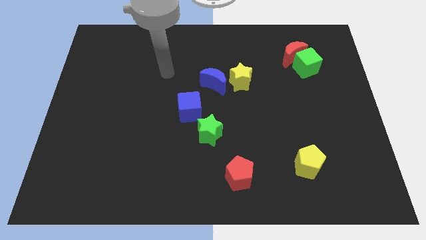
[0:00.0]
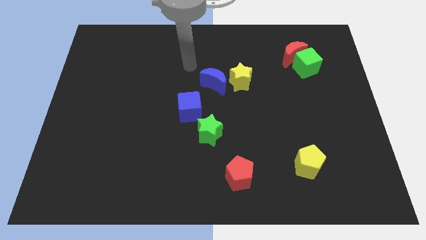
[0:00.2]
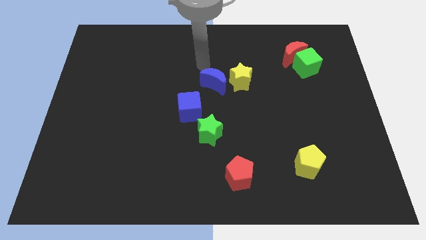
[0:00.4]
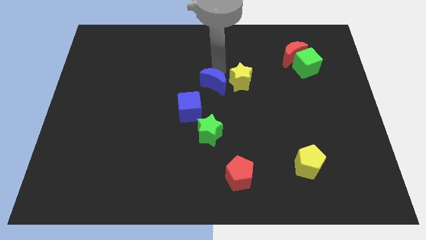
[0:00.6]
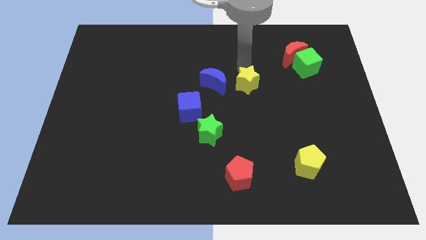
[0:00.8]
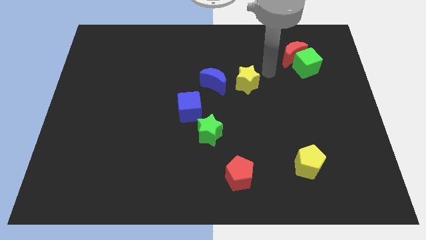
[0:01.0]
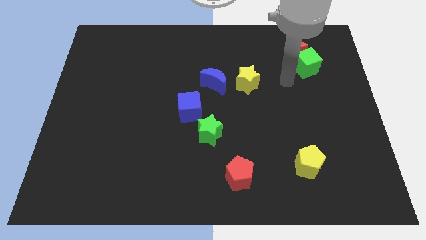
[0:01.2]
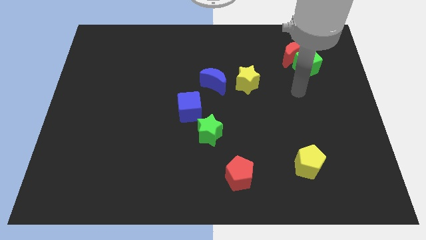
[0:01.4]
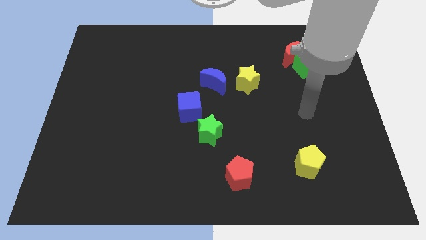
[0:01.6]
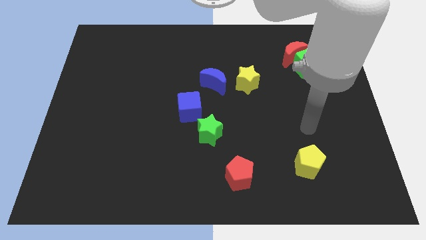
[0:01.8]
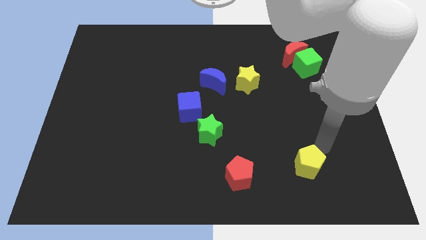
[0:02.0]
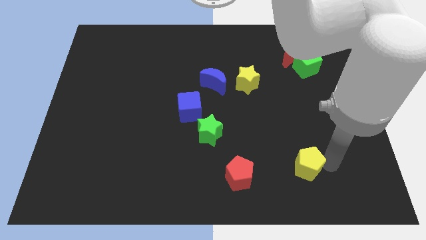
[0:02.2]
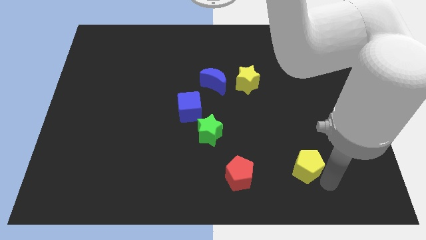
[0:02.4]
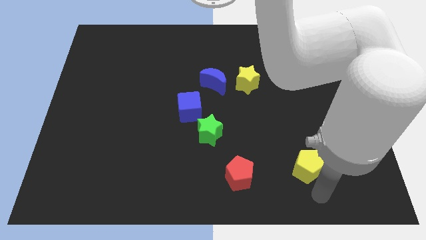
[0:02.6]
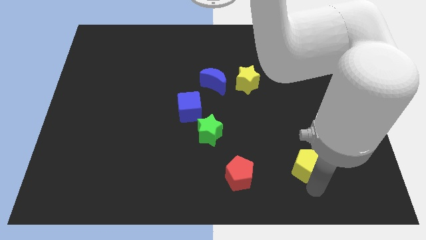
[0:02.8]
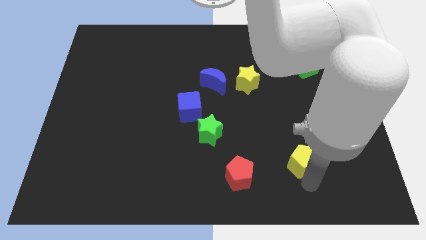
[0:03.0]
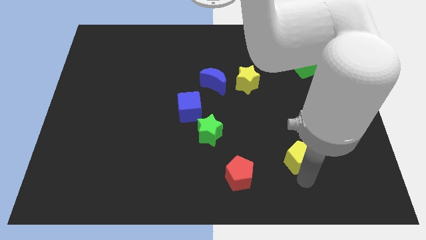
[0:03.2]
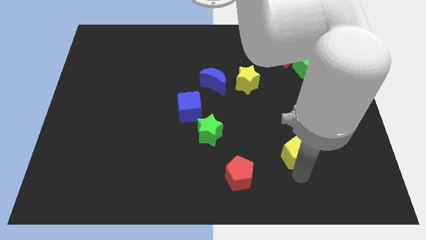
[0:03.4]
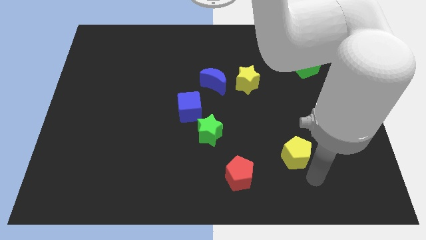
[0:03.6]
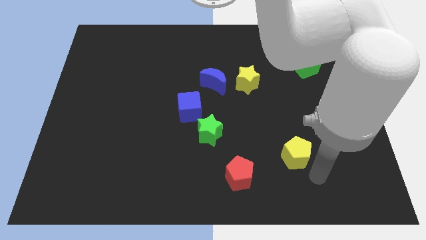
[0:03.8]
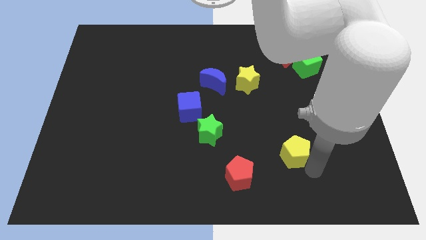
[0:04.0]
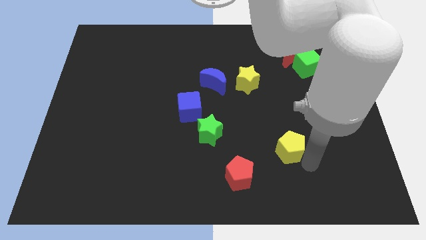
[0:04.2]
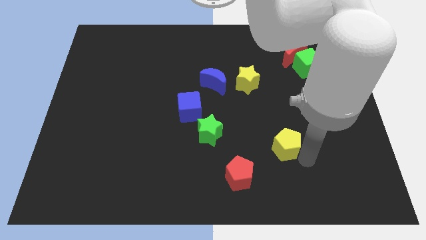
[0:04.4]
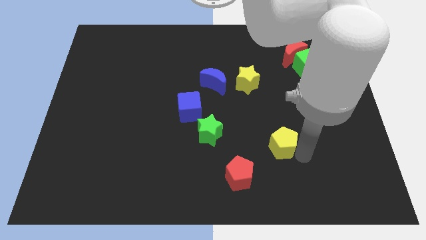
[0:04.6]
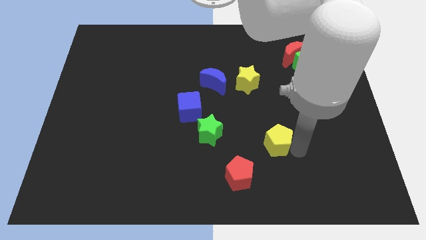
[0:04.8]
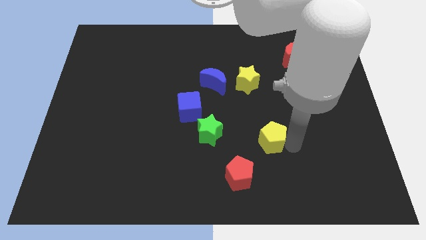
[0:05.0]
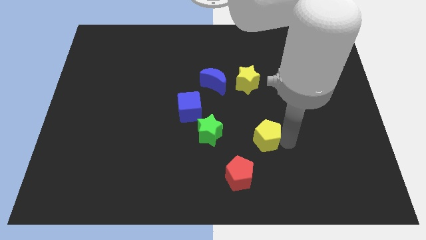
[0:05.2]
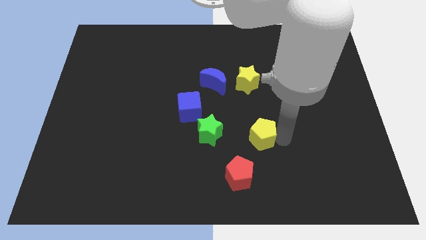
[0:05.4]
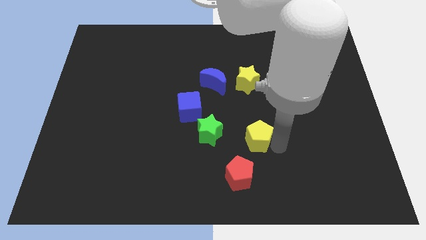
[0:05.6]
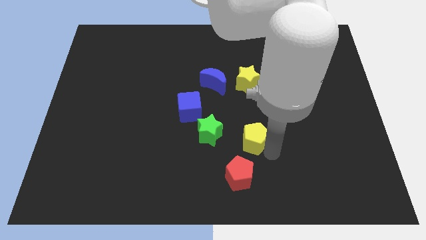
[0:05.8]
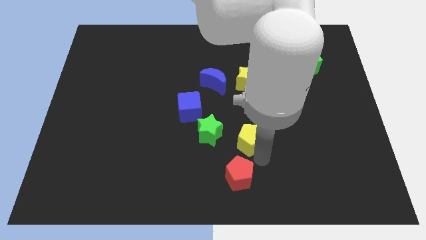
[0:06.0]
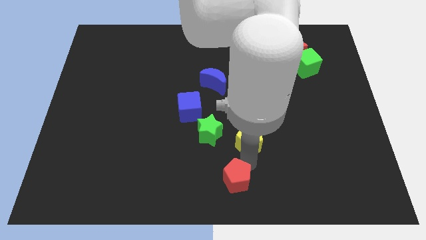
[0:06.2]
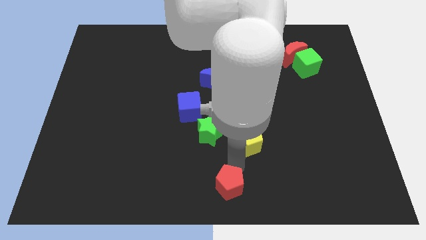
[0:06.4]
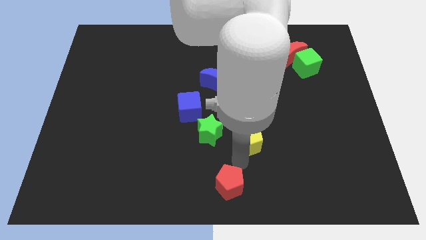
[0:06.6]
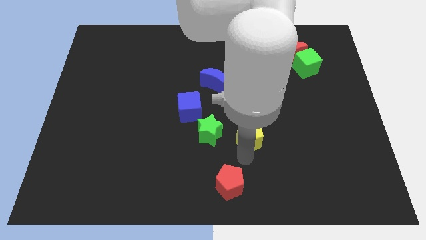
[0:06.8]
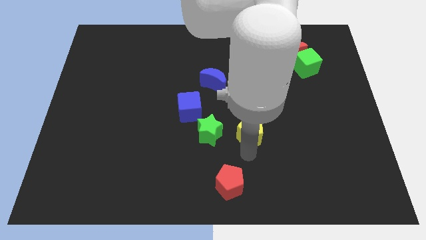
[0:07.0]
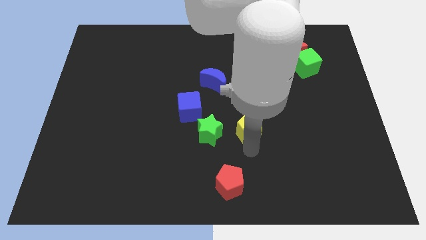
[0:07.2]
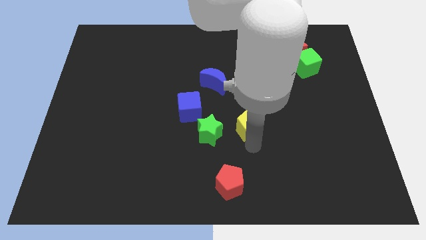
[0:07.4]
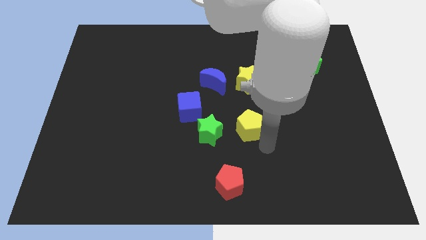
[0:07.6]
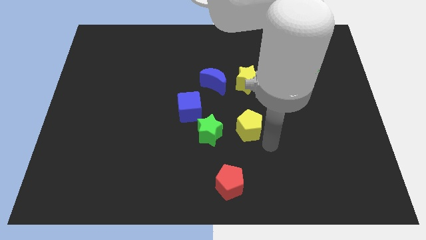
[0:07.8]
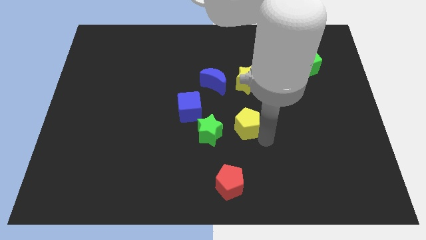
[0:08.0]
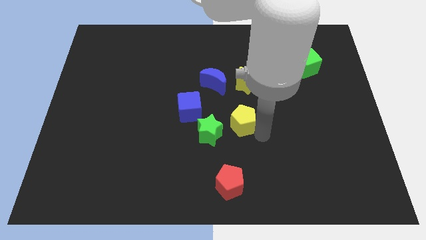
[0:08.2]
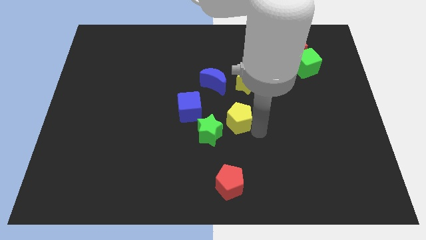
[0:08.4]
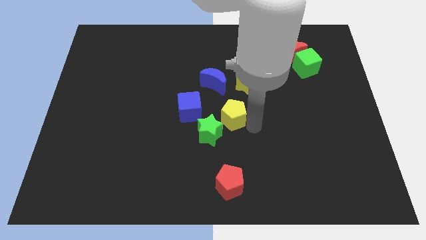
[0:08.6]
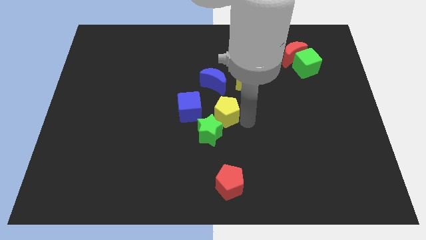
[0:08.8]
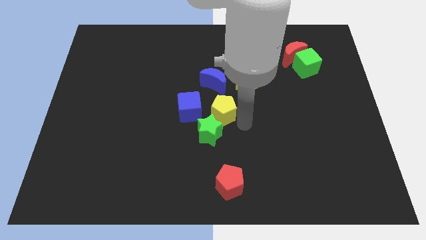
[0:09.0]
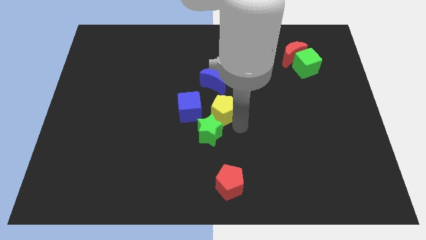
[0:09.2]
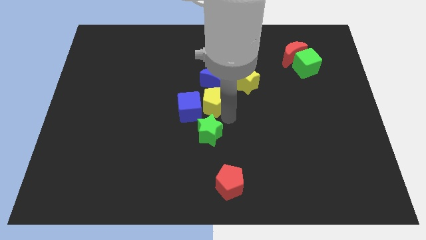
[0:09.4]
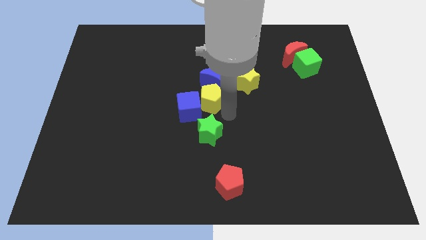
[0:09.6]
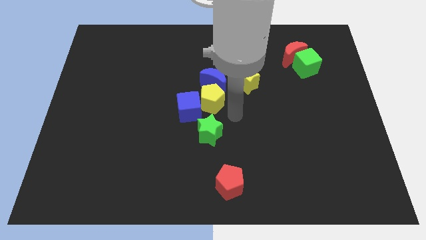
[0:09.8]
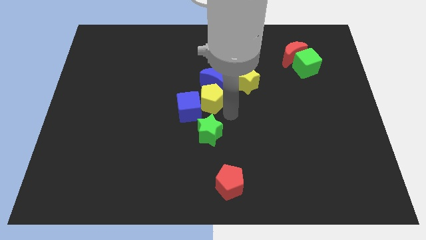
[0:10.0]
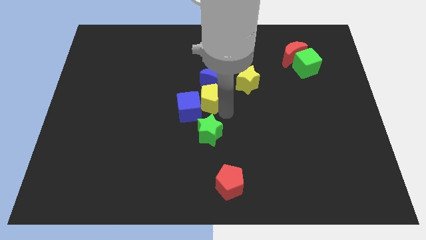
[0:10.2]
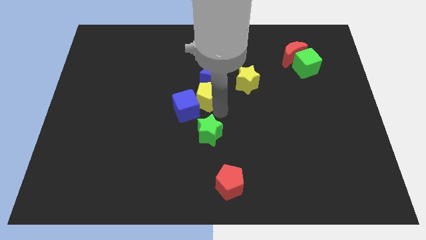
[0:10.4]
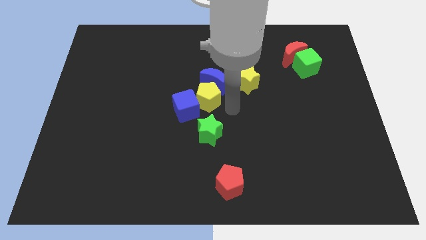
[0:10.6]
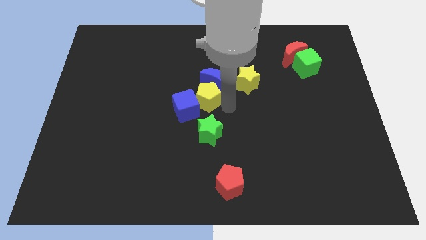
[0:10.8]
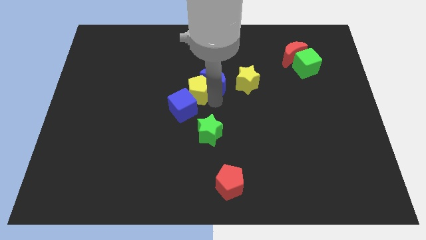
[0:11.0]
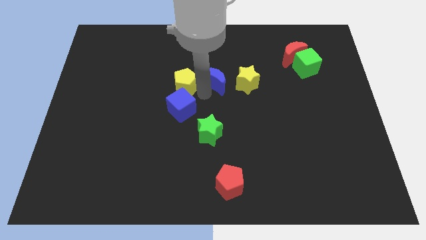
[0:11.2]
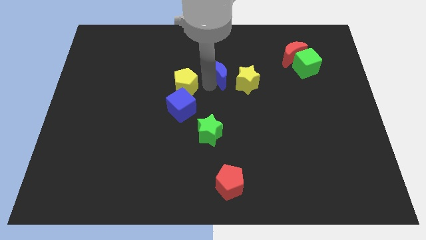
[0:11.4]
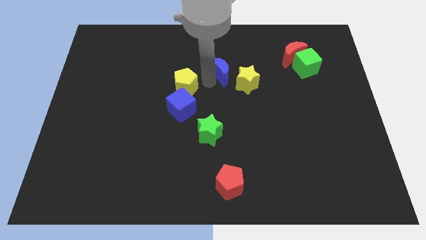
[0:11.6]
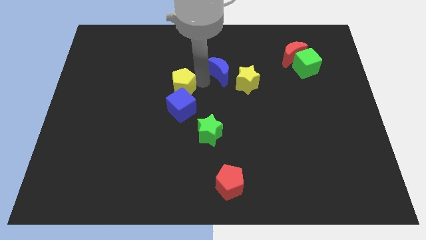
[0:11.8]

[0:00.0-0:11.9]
slide the yellow pentagon to the top left side of the blue cube

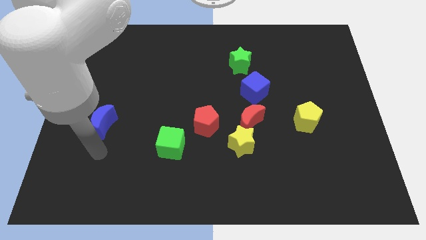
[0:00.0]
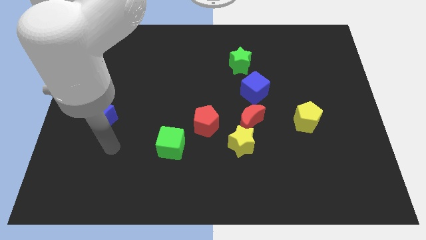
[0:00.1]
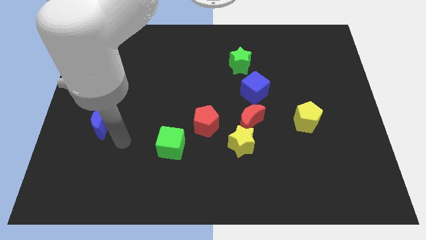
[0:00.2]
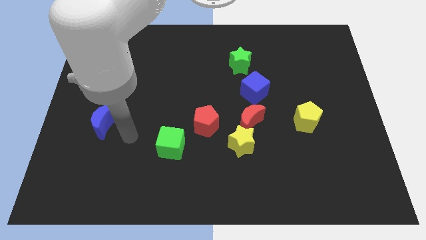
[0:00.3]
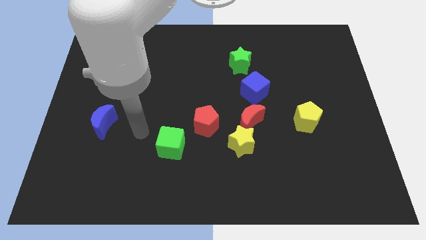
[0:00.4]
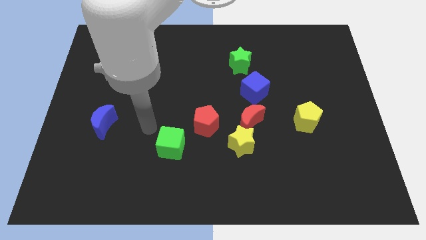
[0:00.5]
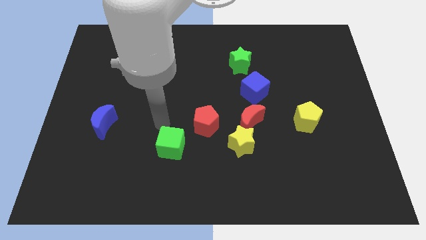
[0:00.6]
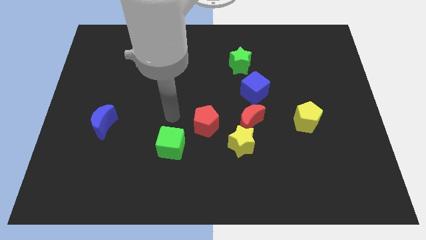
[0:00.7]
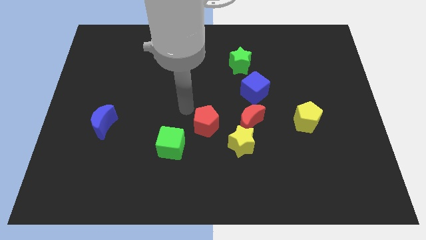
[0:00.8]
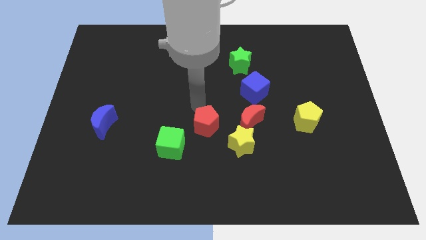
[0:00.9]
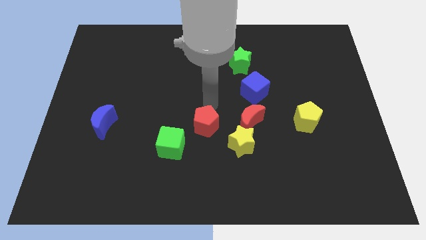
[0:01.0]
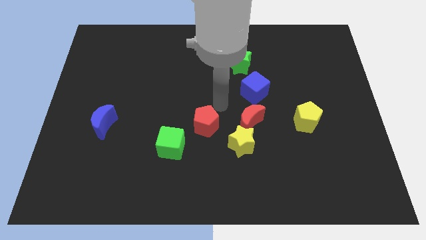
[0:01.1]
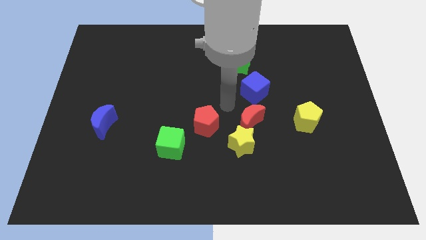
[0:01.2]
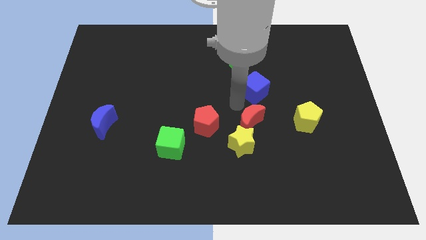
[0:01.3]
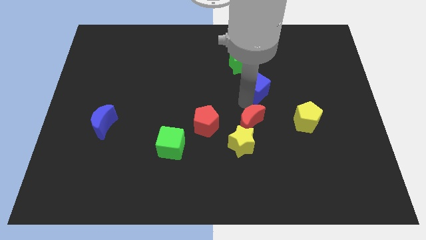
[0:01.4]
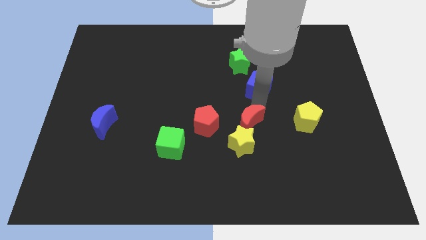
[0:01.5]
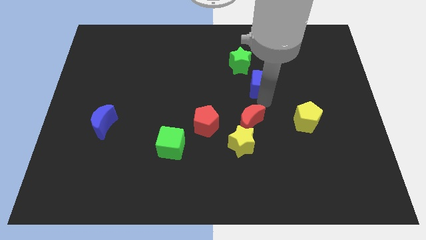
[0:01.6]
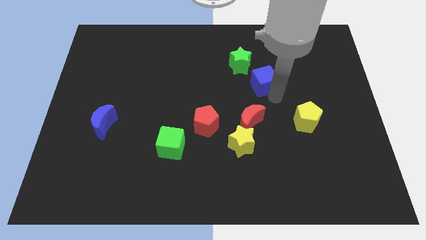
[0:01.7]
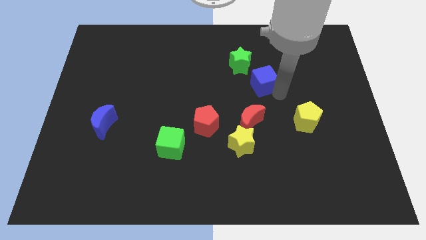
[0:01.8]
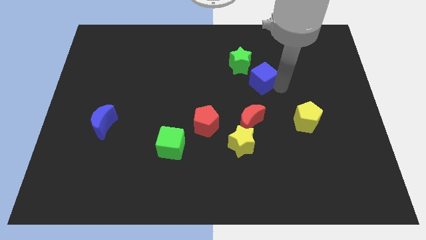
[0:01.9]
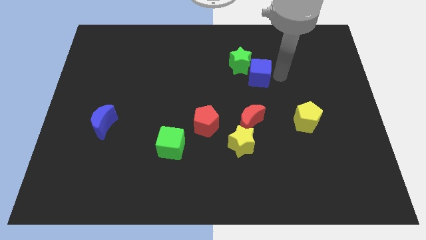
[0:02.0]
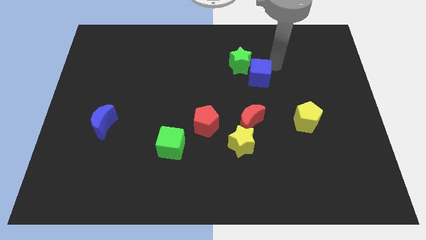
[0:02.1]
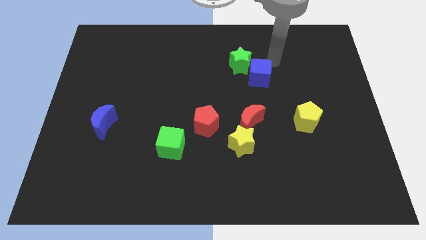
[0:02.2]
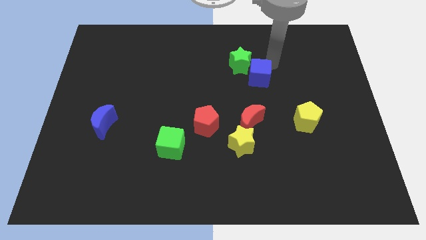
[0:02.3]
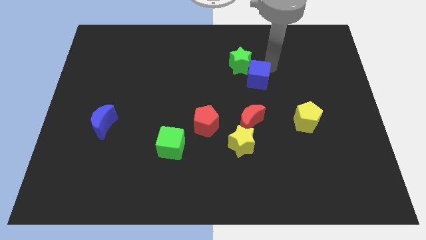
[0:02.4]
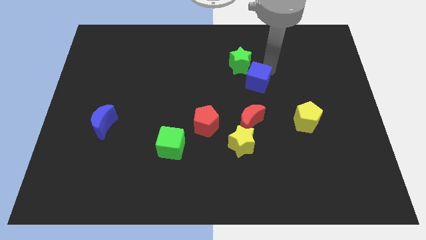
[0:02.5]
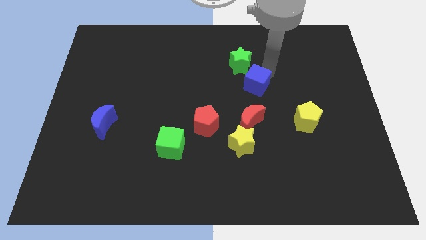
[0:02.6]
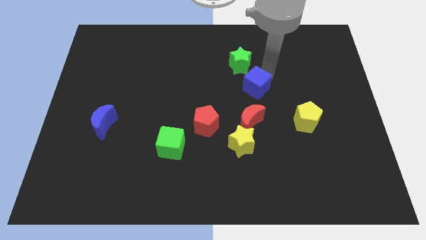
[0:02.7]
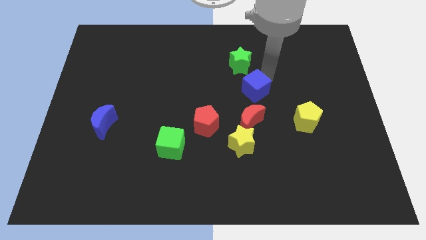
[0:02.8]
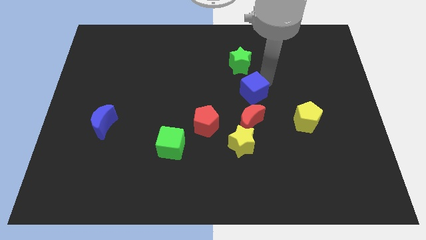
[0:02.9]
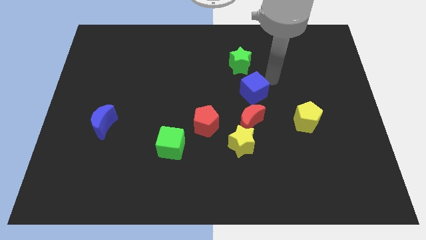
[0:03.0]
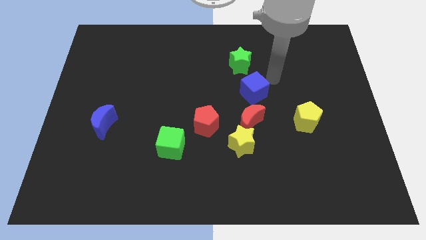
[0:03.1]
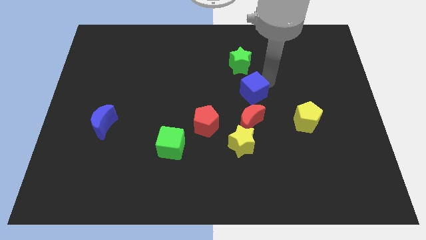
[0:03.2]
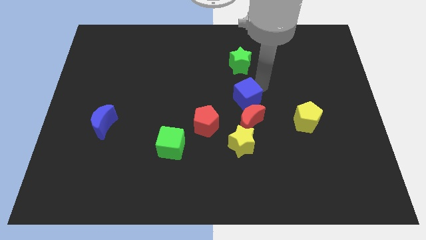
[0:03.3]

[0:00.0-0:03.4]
put the blue cube to the top right side of the red pentagon
